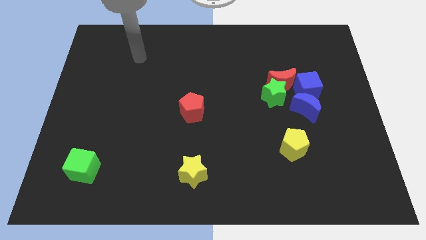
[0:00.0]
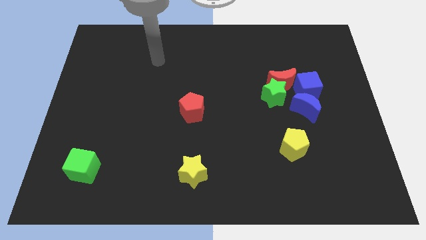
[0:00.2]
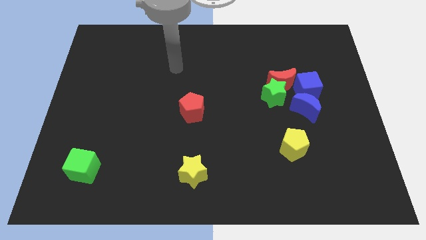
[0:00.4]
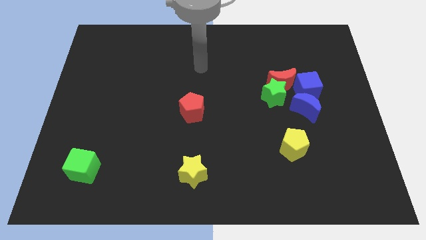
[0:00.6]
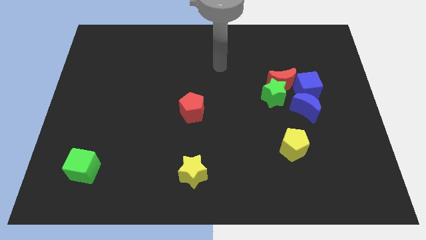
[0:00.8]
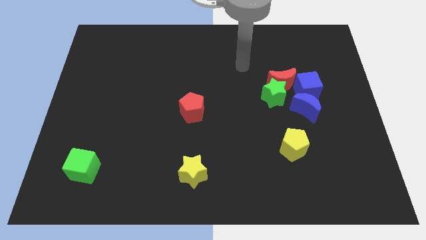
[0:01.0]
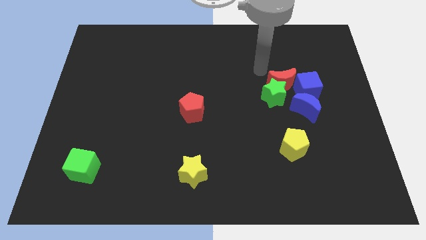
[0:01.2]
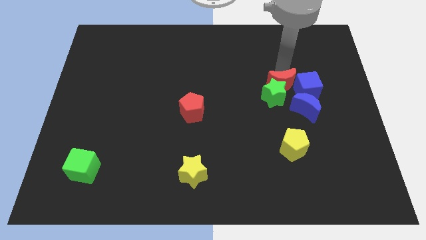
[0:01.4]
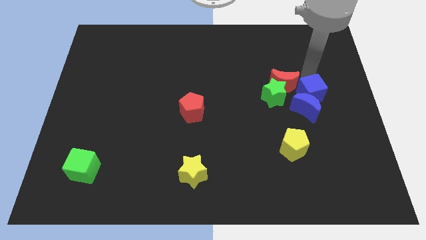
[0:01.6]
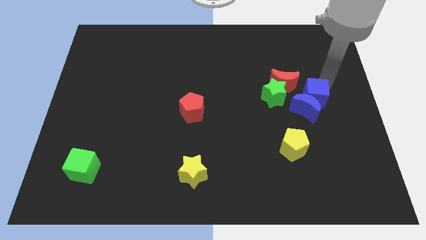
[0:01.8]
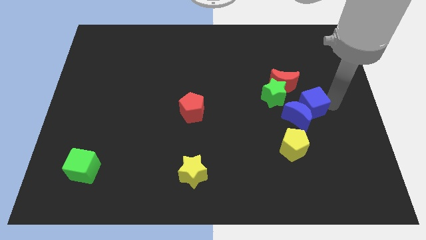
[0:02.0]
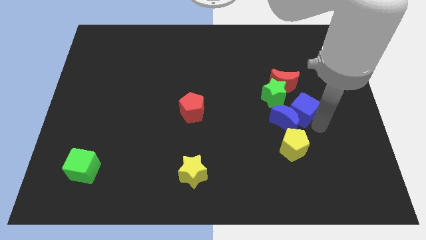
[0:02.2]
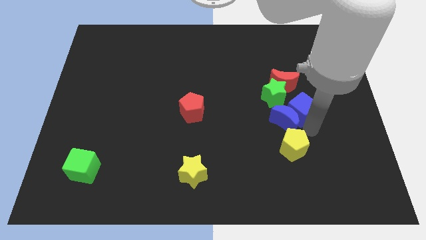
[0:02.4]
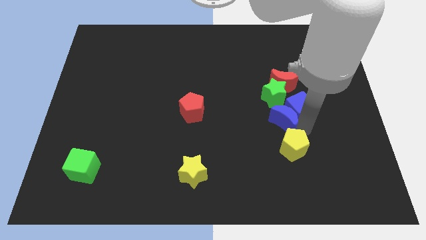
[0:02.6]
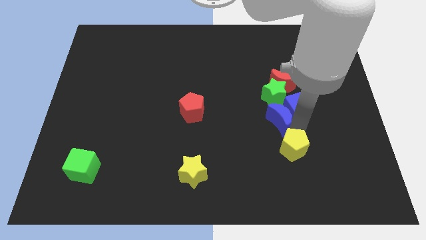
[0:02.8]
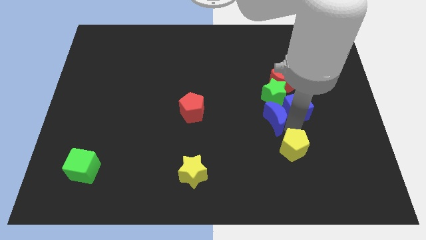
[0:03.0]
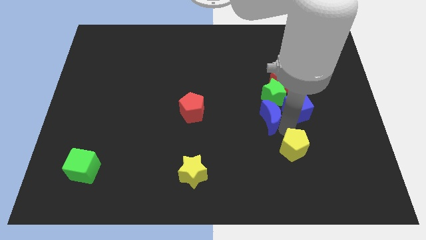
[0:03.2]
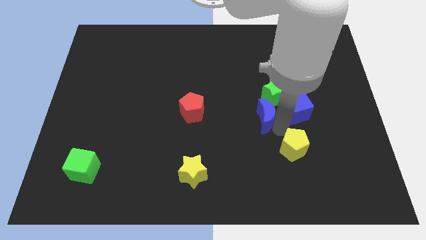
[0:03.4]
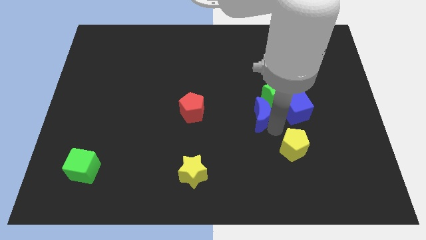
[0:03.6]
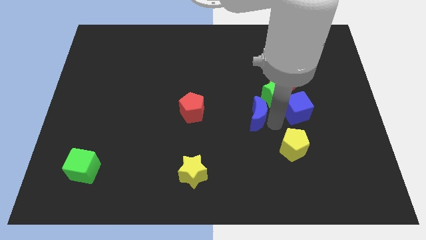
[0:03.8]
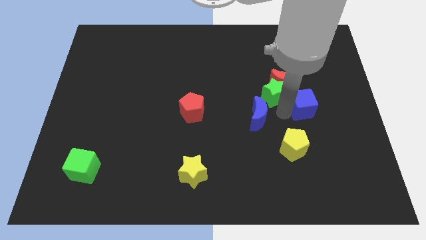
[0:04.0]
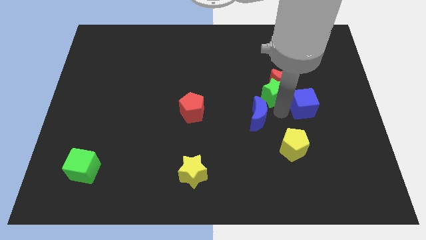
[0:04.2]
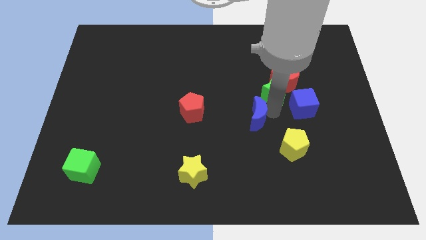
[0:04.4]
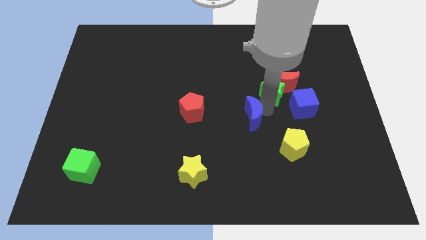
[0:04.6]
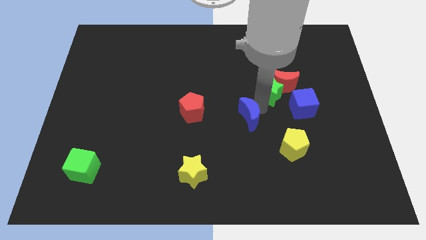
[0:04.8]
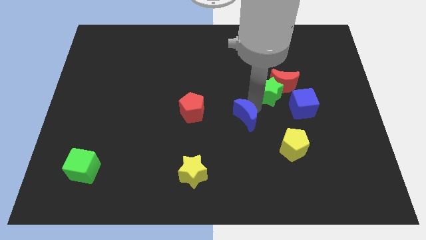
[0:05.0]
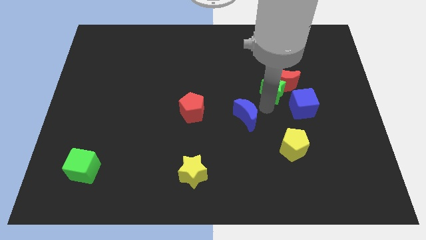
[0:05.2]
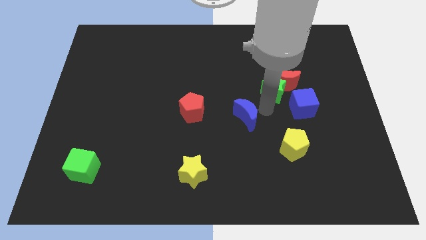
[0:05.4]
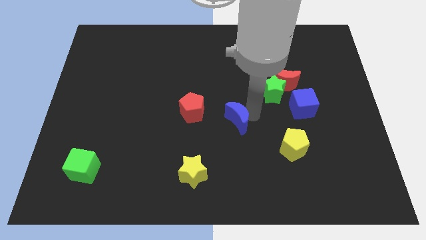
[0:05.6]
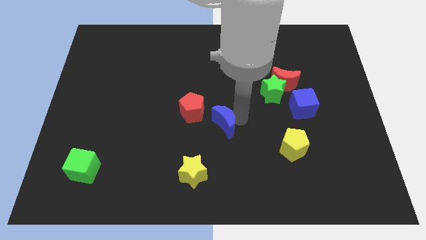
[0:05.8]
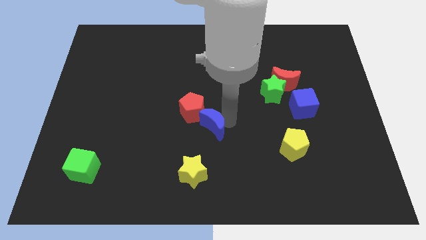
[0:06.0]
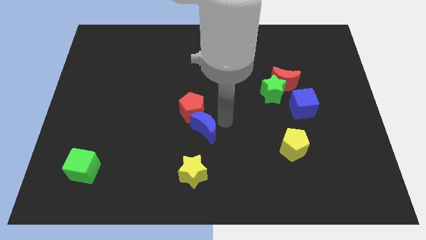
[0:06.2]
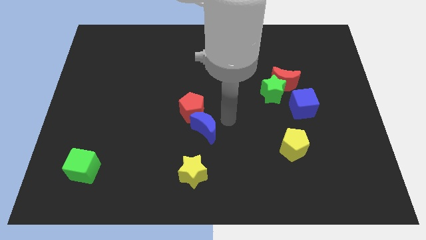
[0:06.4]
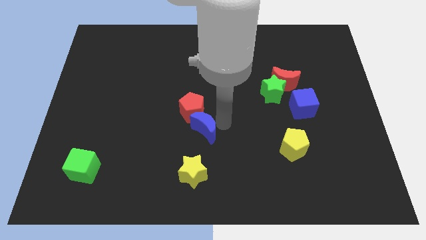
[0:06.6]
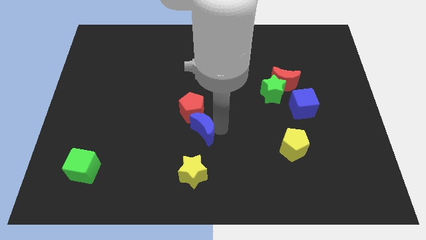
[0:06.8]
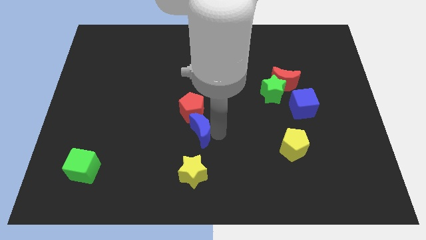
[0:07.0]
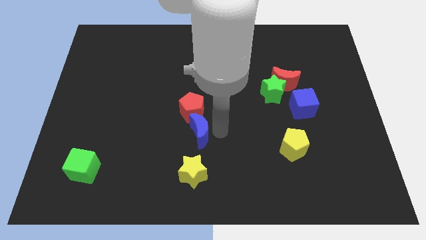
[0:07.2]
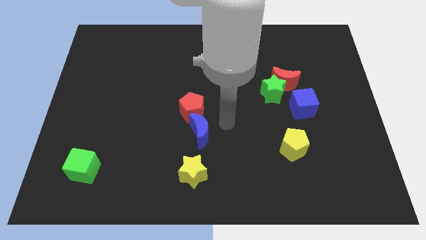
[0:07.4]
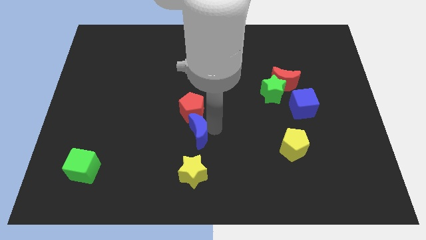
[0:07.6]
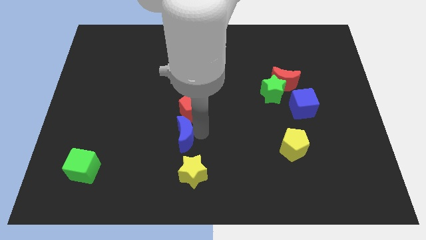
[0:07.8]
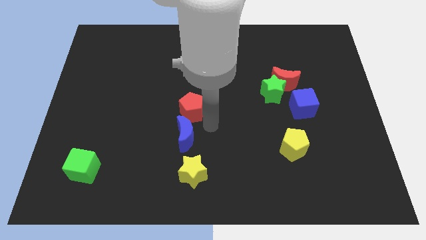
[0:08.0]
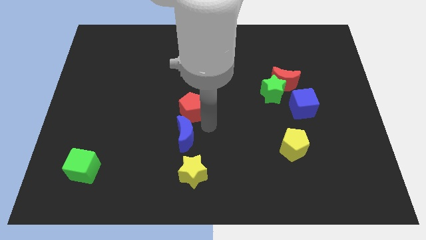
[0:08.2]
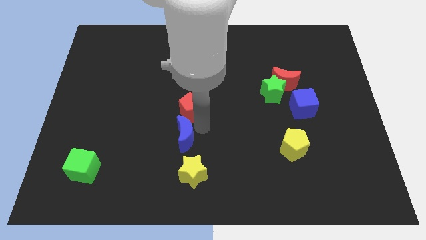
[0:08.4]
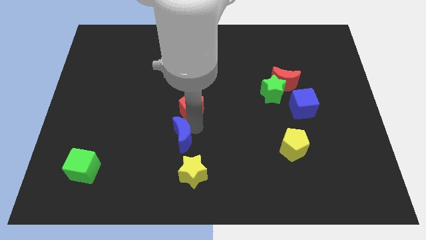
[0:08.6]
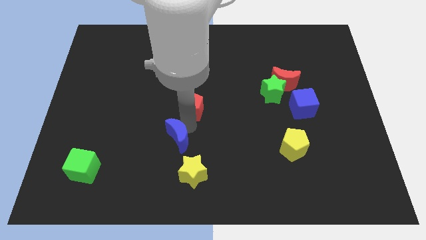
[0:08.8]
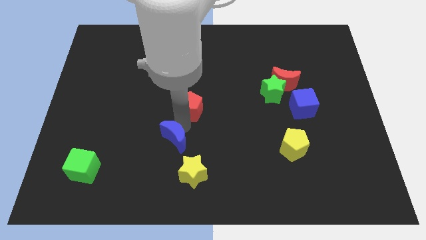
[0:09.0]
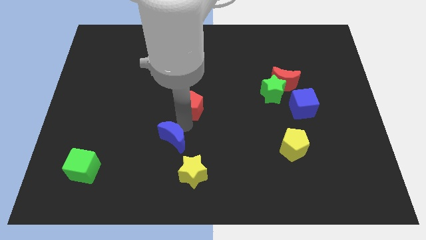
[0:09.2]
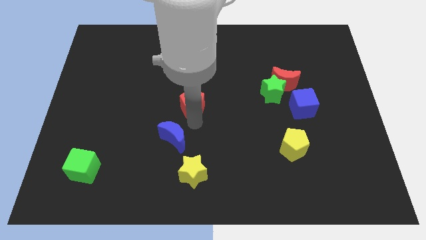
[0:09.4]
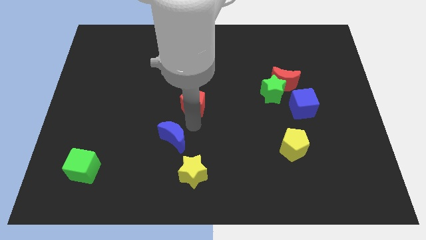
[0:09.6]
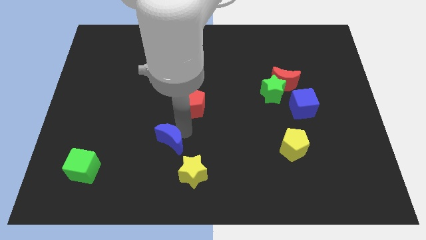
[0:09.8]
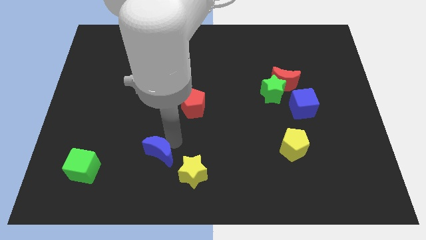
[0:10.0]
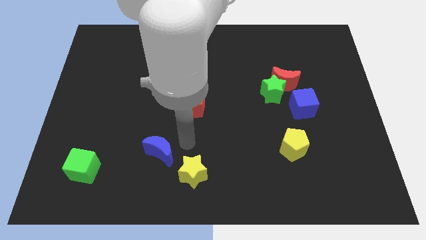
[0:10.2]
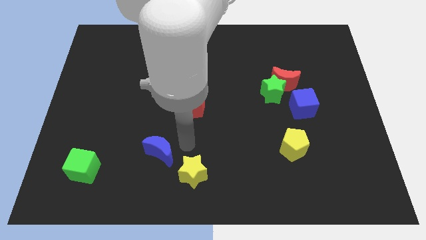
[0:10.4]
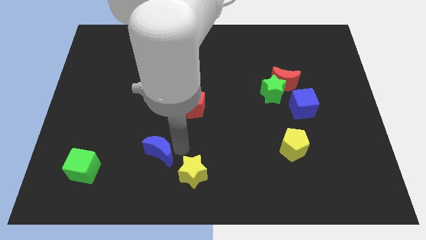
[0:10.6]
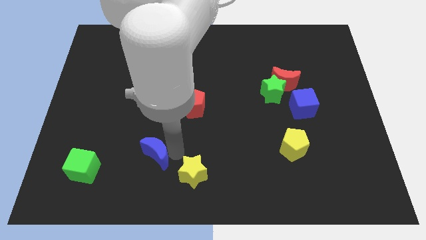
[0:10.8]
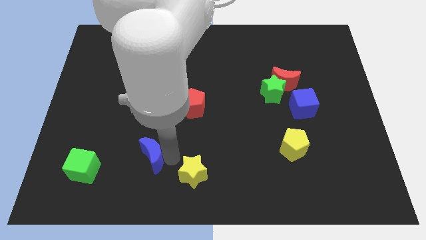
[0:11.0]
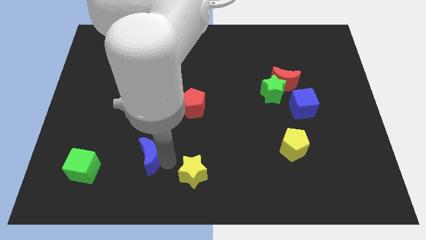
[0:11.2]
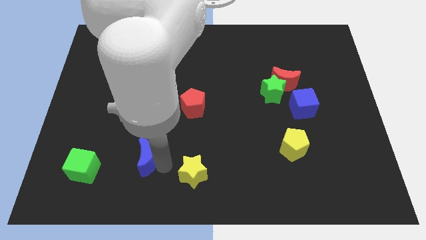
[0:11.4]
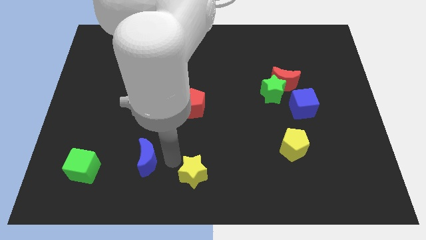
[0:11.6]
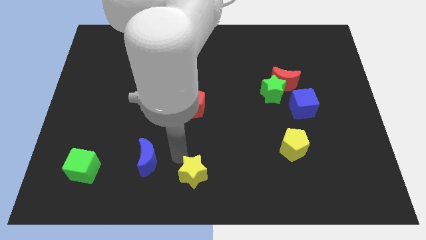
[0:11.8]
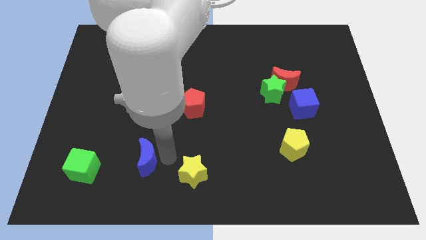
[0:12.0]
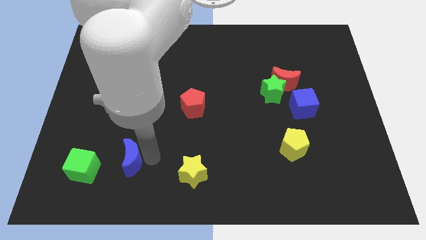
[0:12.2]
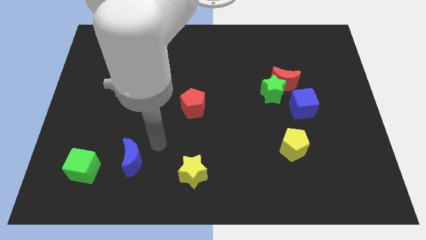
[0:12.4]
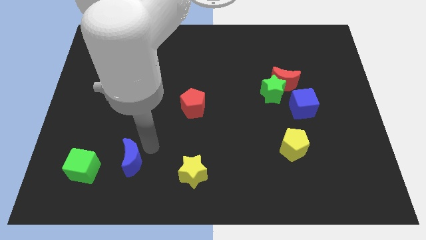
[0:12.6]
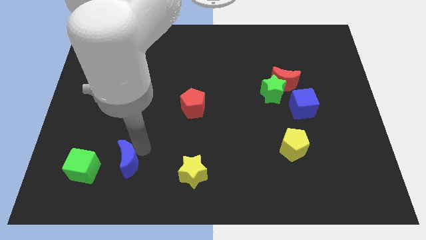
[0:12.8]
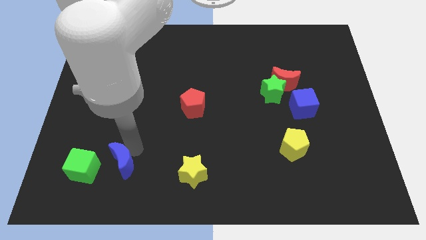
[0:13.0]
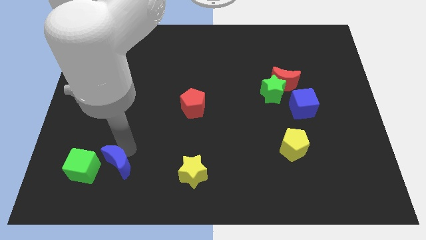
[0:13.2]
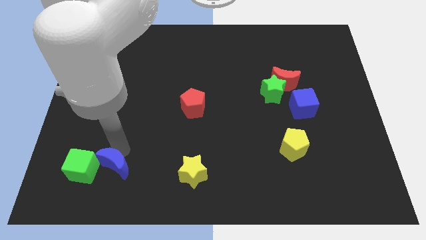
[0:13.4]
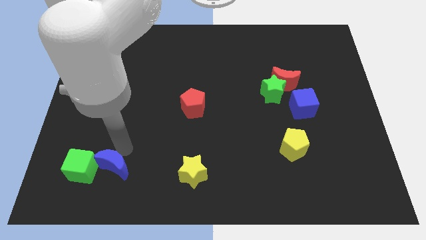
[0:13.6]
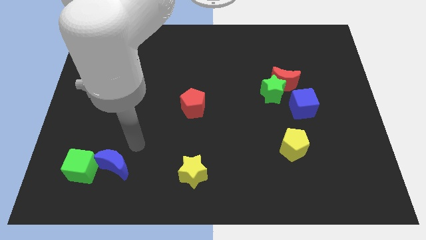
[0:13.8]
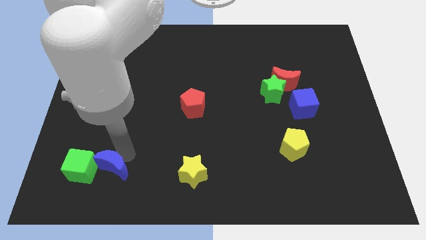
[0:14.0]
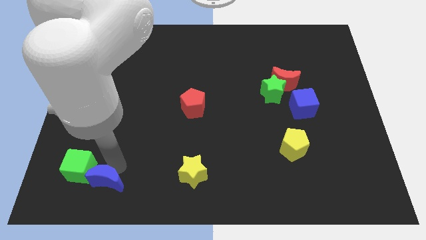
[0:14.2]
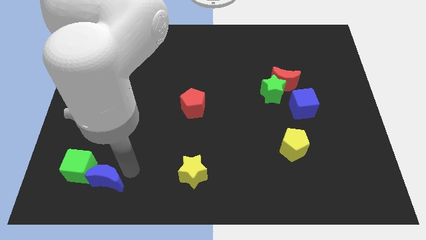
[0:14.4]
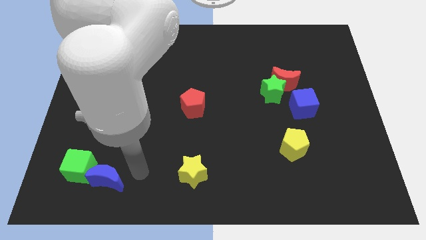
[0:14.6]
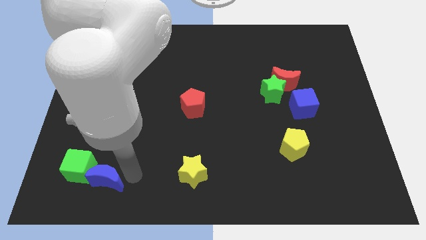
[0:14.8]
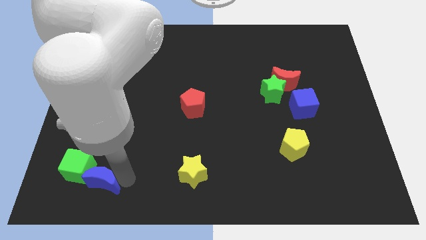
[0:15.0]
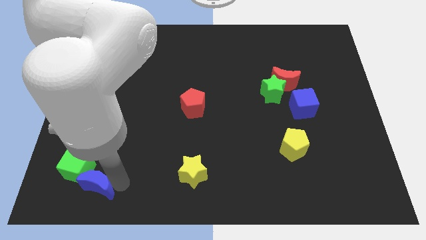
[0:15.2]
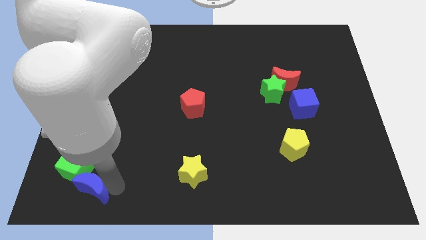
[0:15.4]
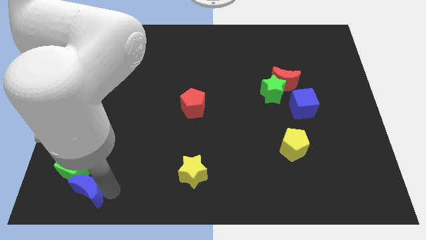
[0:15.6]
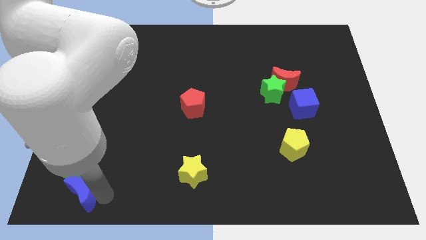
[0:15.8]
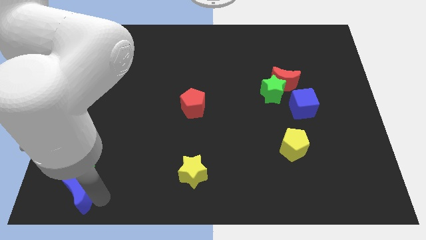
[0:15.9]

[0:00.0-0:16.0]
put the blue moon to the bottom left corner
